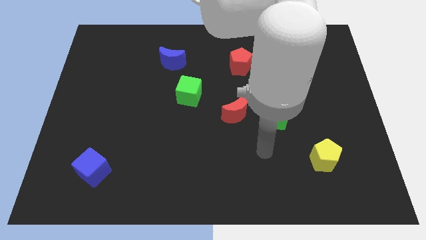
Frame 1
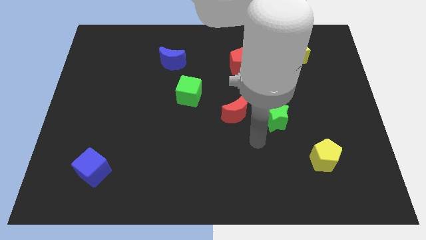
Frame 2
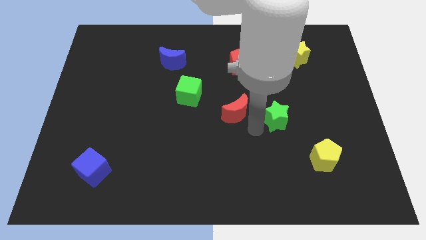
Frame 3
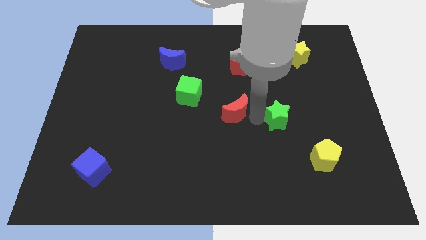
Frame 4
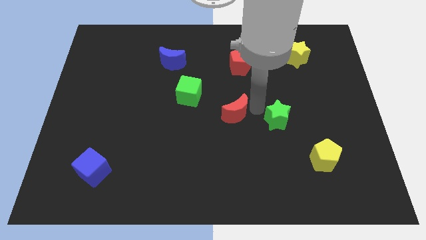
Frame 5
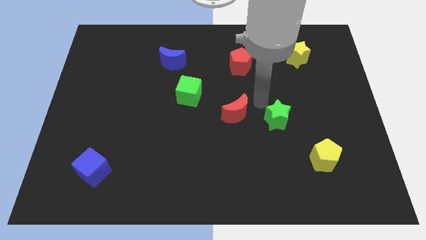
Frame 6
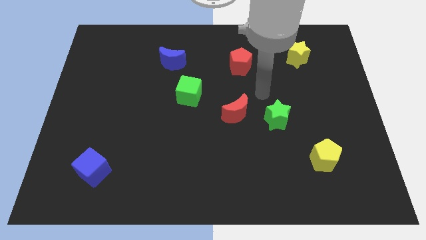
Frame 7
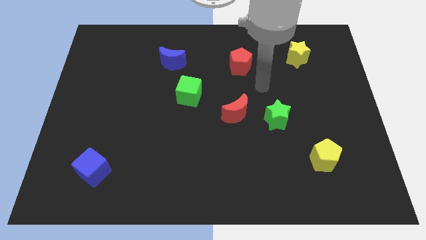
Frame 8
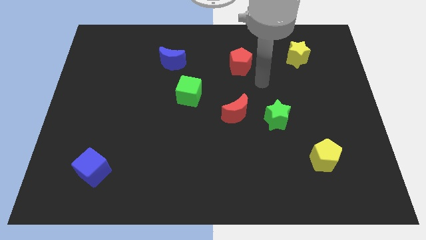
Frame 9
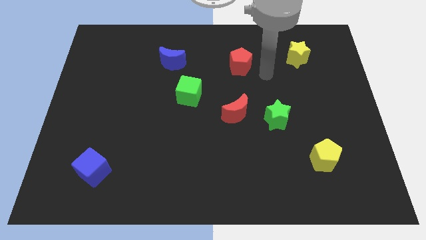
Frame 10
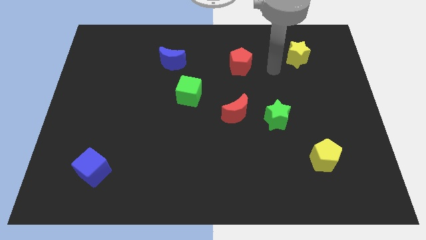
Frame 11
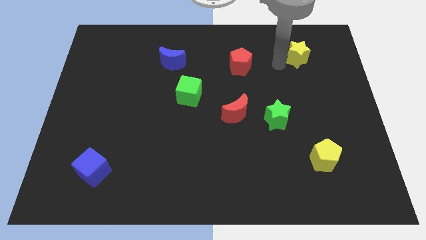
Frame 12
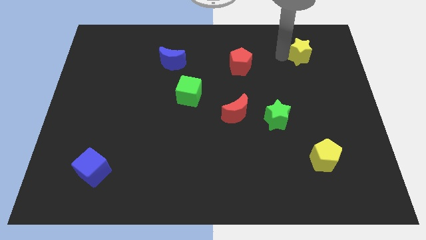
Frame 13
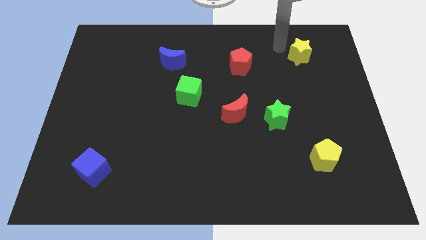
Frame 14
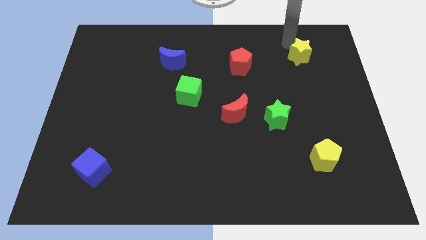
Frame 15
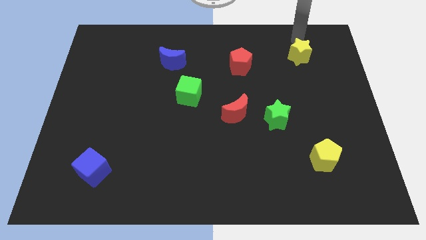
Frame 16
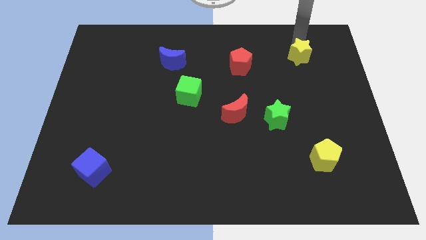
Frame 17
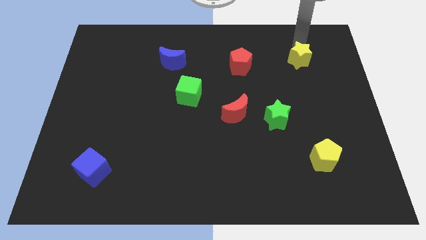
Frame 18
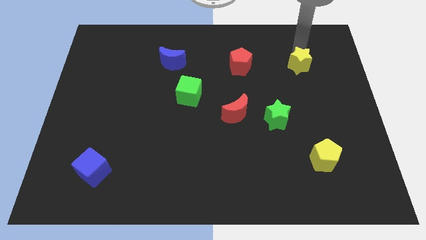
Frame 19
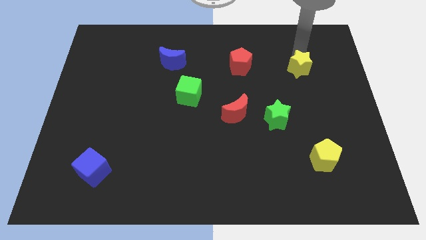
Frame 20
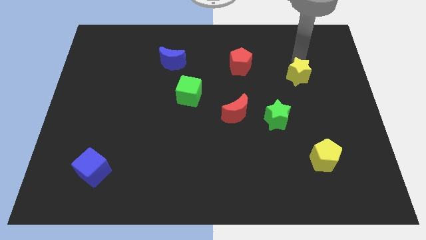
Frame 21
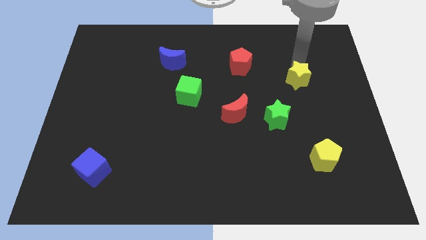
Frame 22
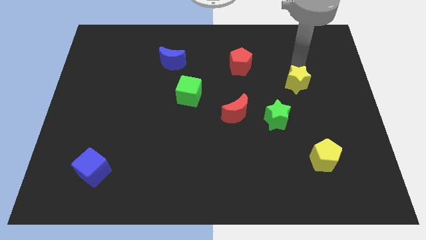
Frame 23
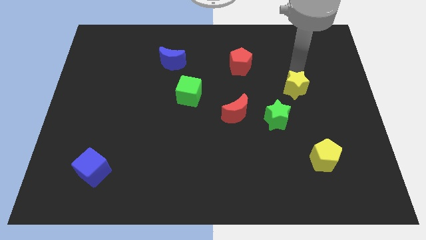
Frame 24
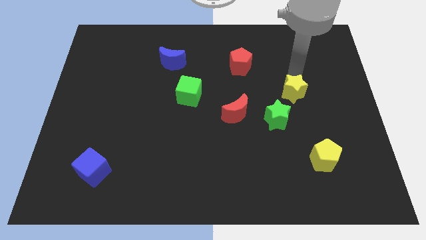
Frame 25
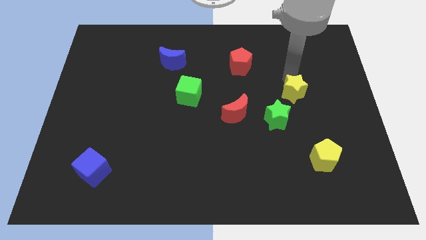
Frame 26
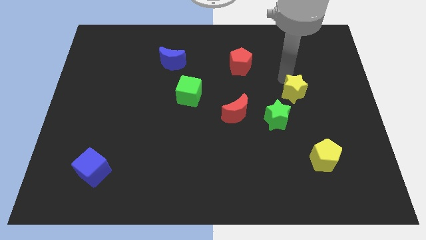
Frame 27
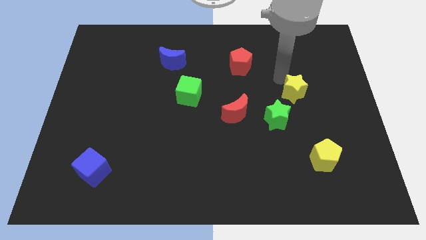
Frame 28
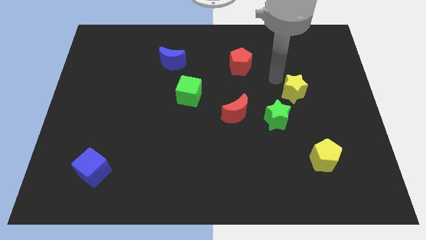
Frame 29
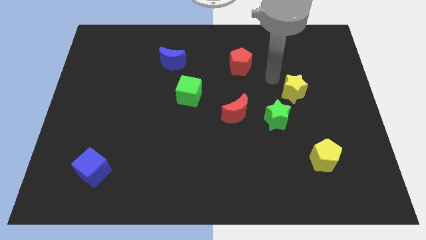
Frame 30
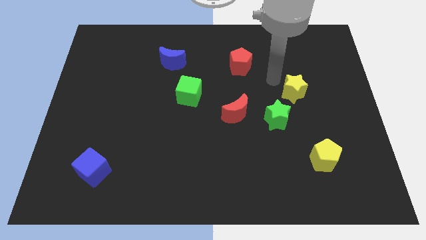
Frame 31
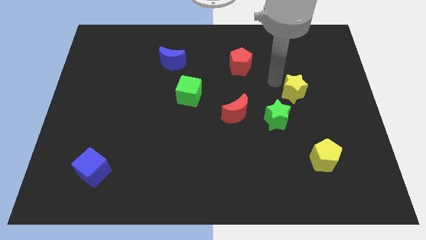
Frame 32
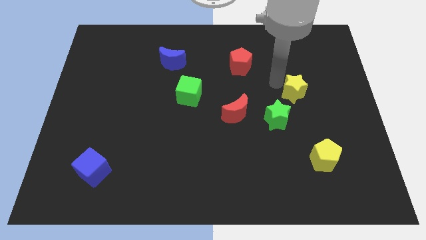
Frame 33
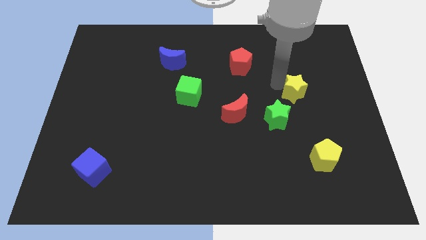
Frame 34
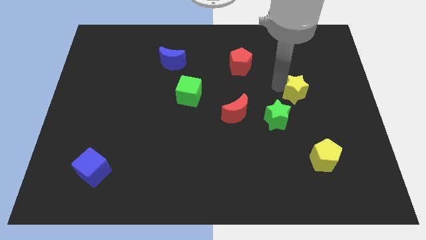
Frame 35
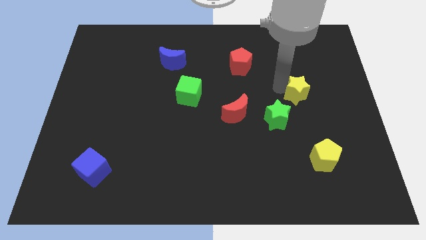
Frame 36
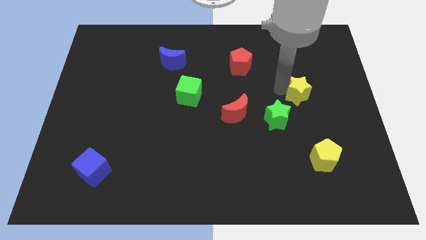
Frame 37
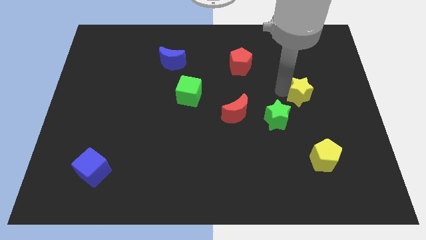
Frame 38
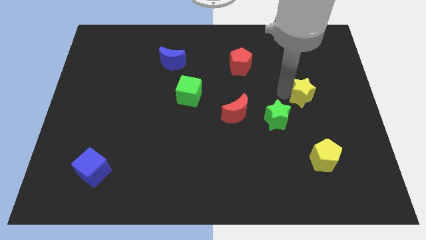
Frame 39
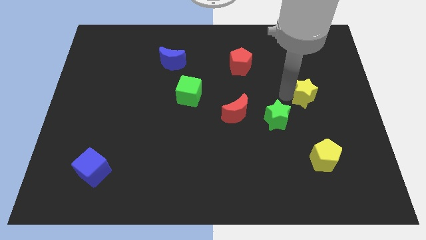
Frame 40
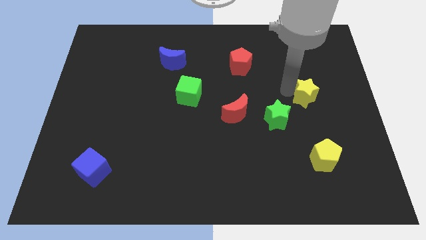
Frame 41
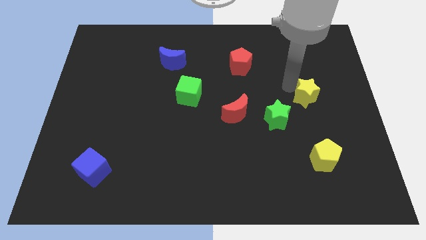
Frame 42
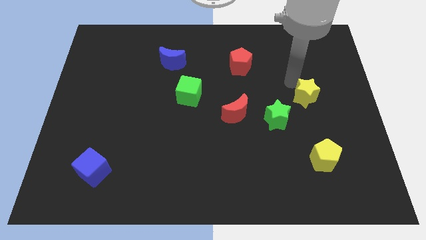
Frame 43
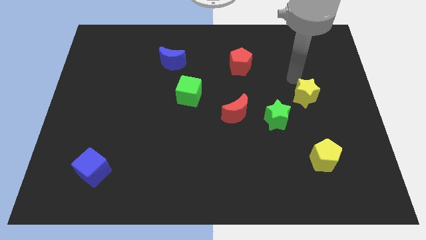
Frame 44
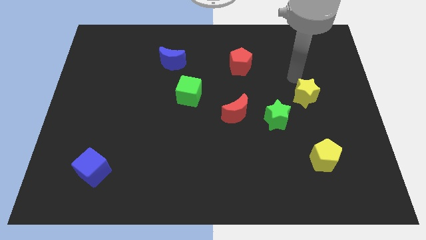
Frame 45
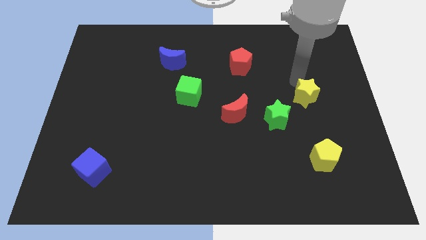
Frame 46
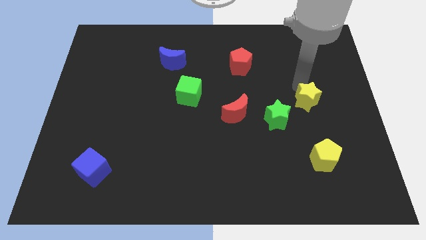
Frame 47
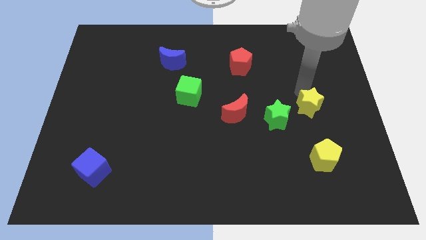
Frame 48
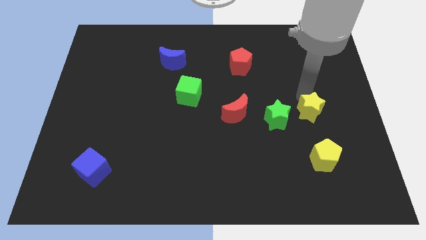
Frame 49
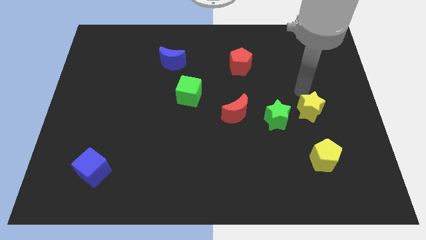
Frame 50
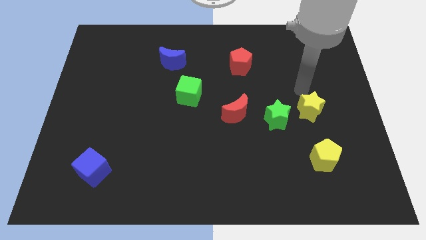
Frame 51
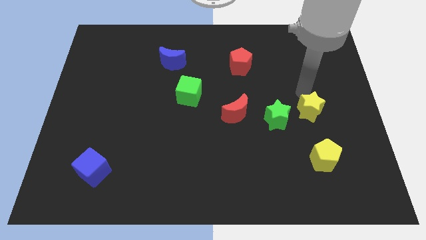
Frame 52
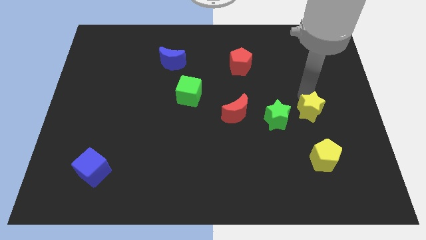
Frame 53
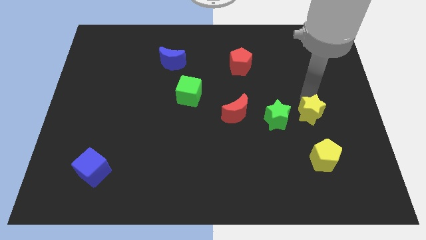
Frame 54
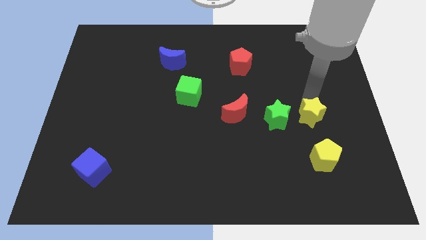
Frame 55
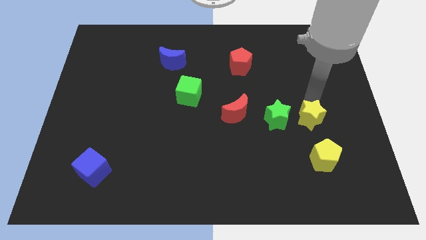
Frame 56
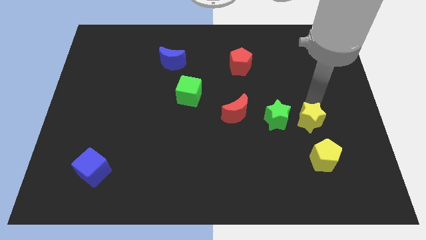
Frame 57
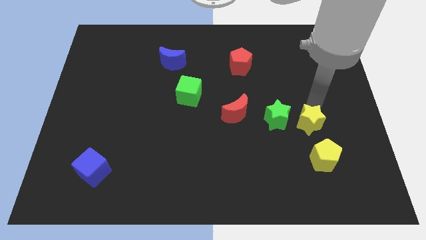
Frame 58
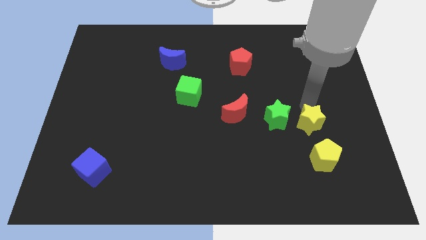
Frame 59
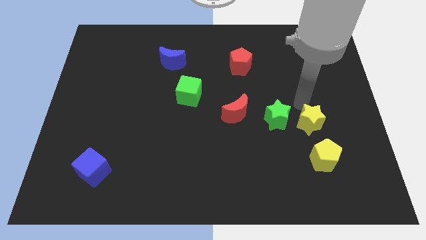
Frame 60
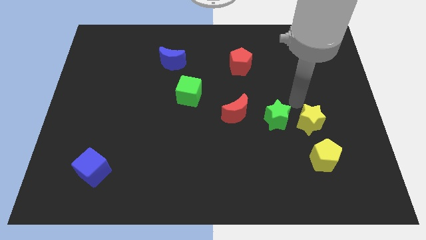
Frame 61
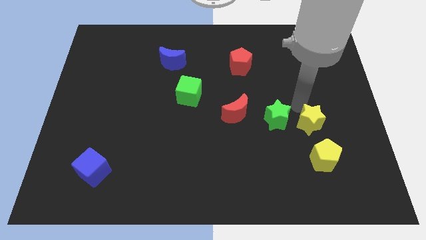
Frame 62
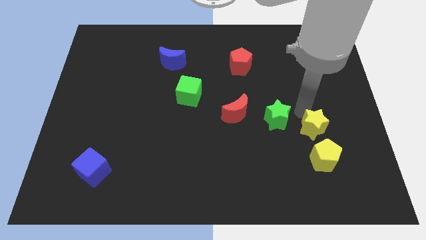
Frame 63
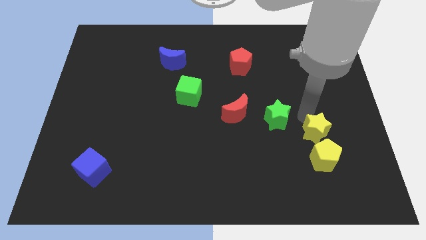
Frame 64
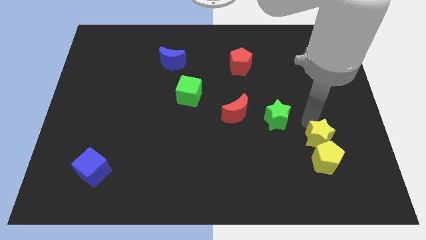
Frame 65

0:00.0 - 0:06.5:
push the yellow star to the yellow pentagon

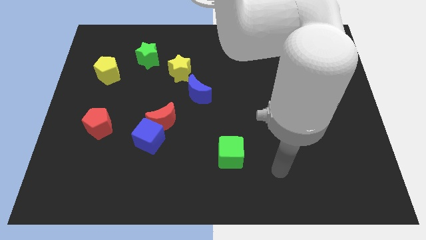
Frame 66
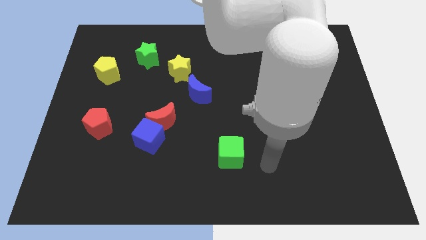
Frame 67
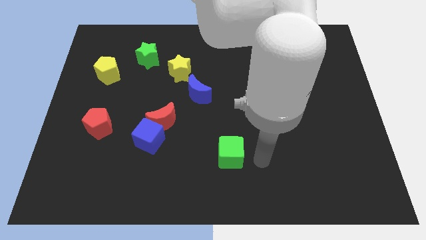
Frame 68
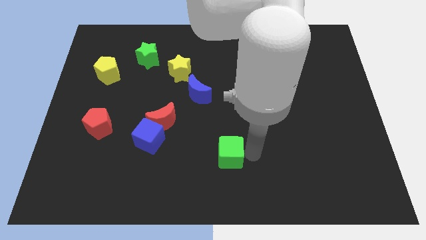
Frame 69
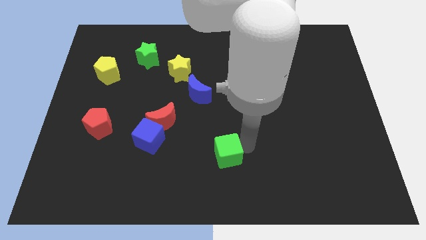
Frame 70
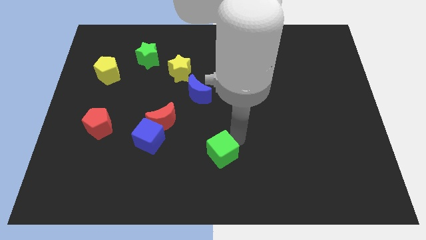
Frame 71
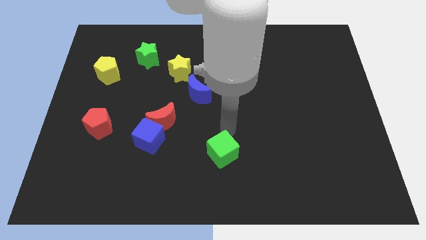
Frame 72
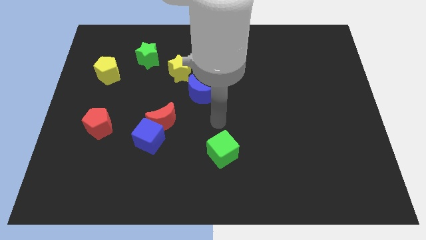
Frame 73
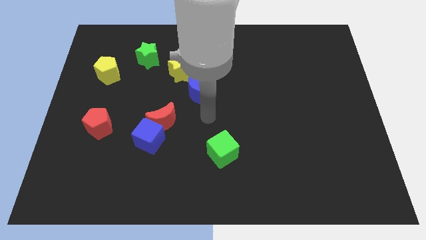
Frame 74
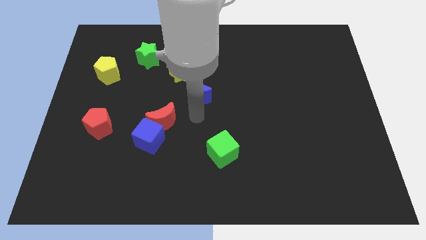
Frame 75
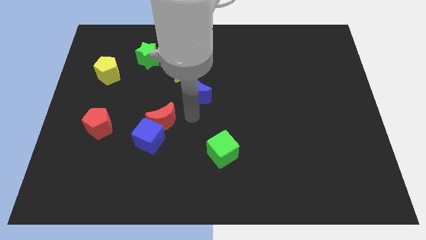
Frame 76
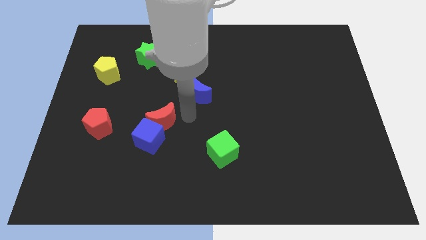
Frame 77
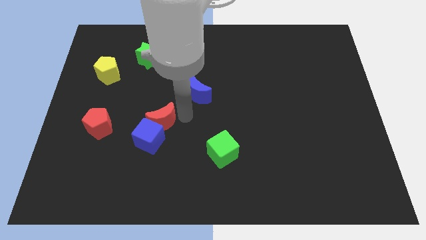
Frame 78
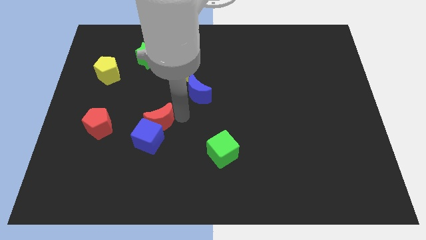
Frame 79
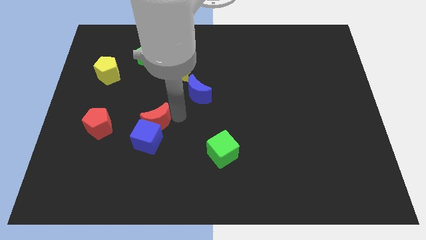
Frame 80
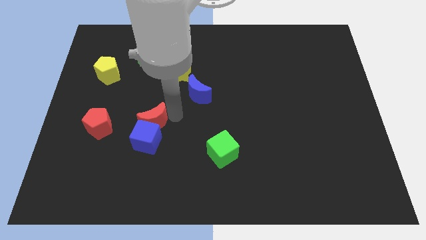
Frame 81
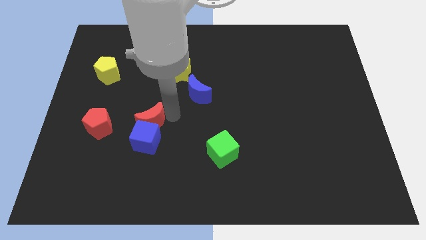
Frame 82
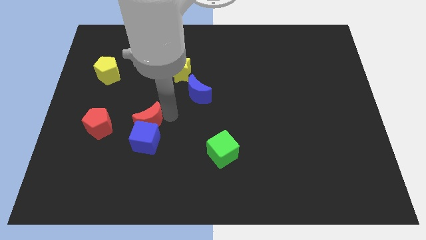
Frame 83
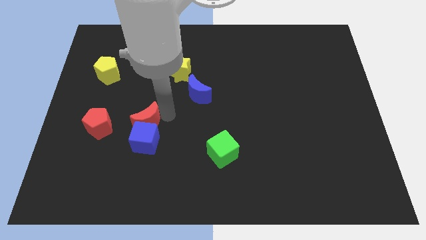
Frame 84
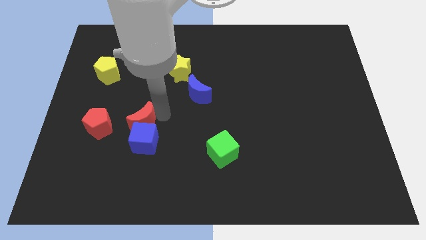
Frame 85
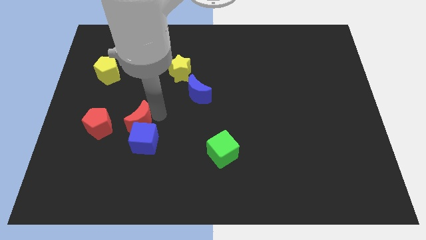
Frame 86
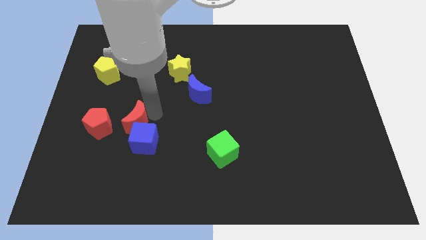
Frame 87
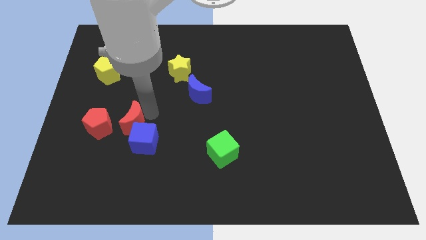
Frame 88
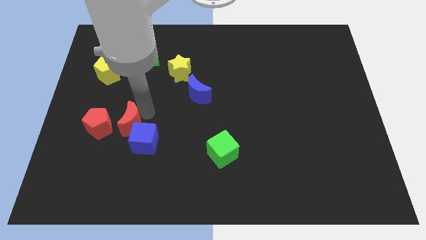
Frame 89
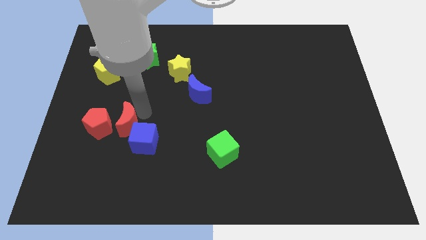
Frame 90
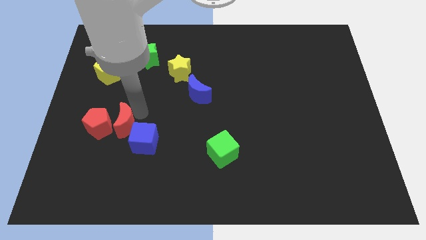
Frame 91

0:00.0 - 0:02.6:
put the red moon to the red pentagon
